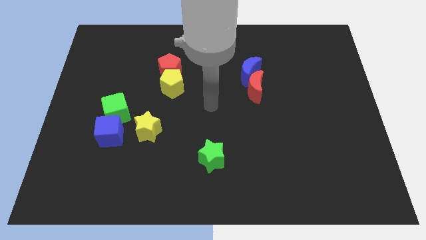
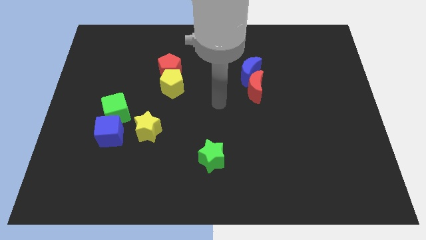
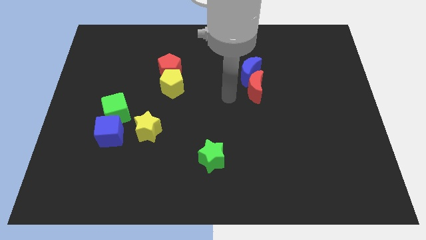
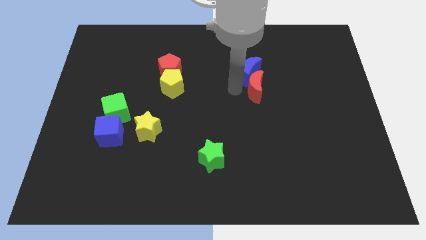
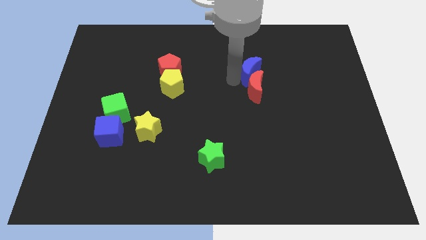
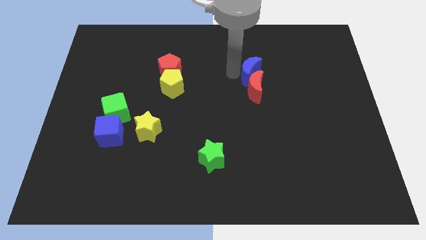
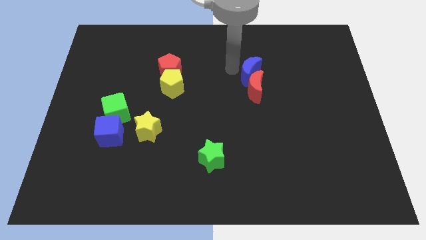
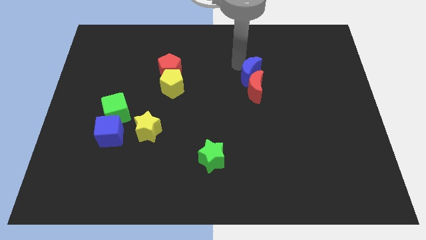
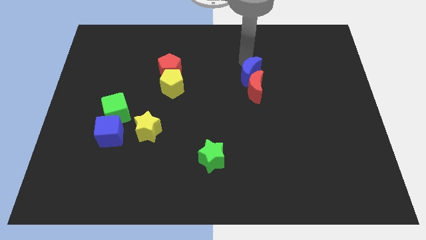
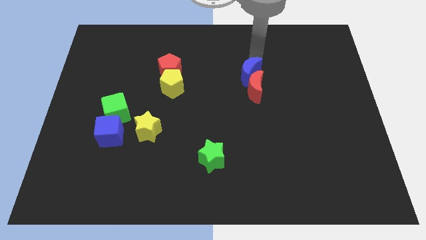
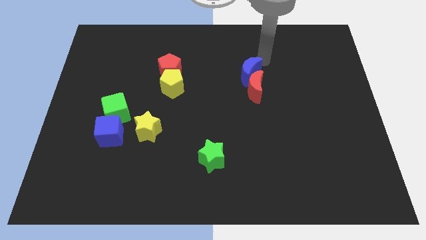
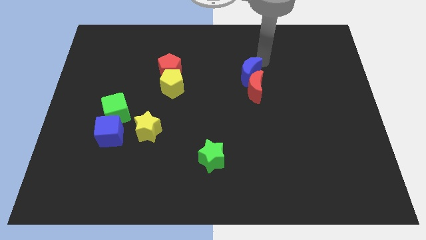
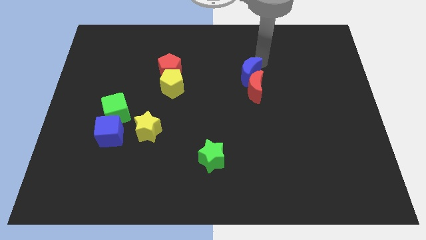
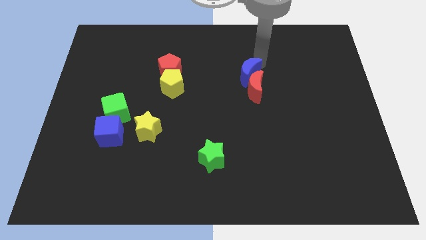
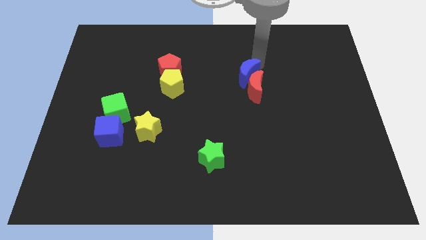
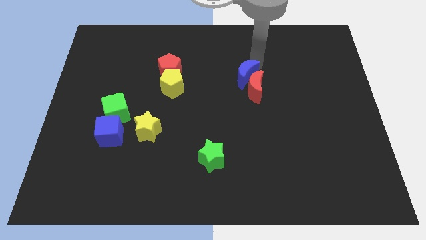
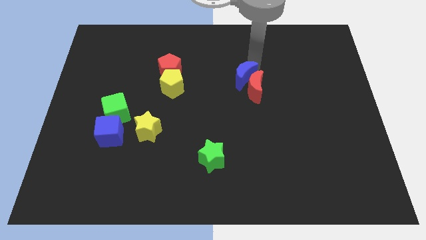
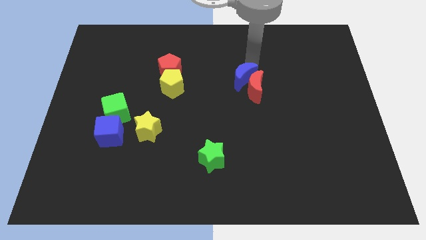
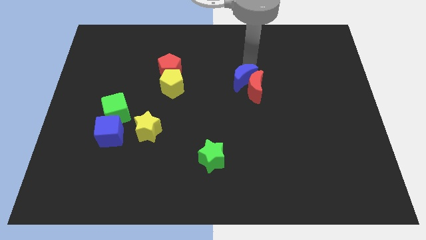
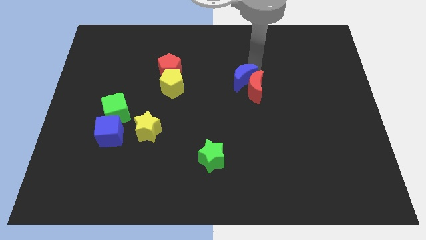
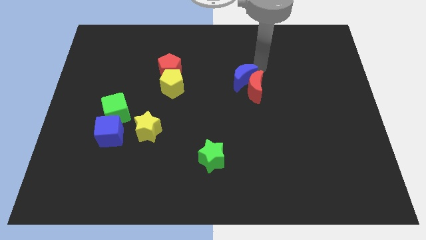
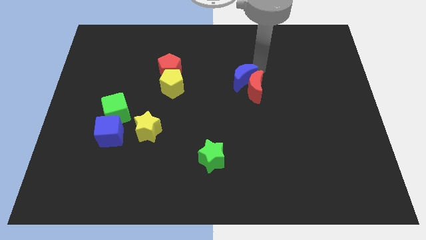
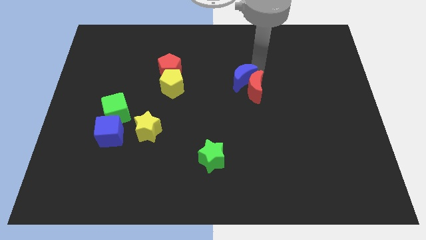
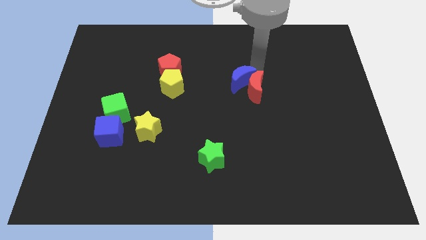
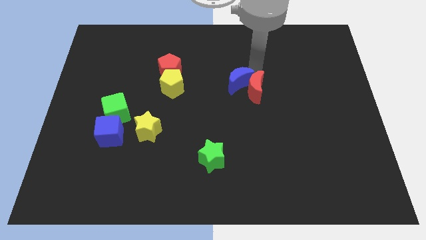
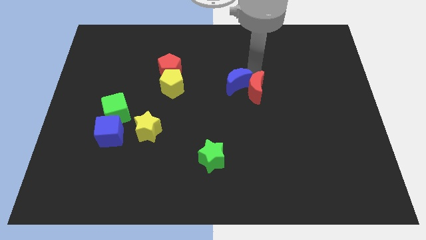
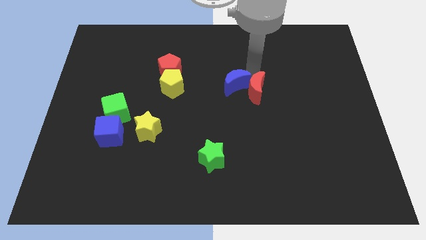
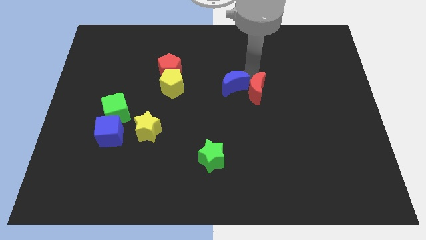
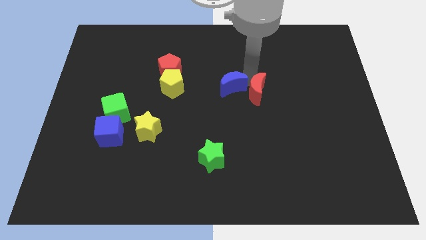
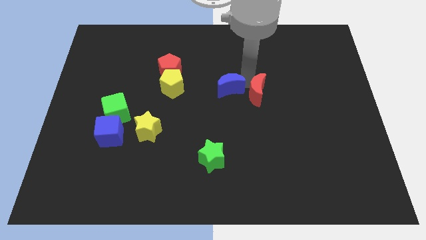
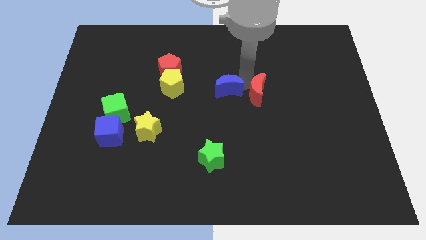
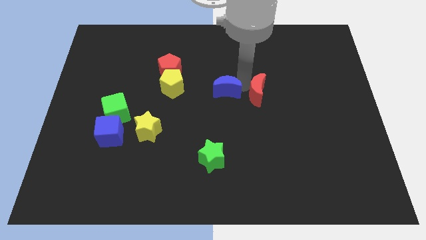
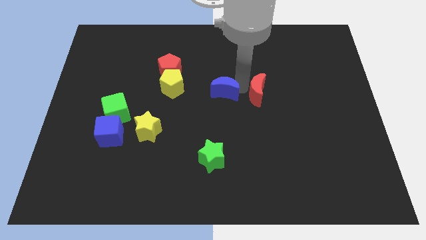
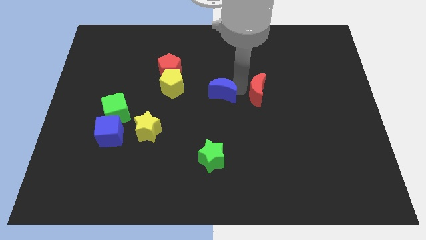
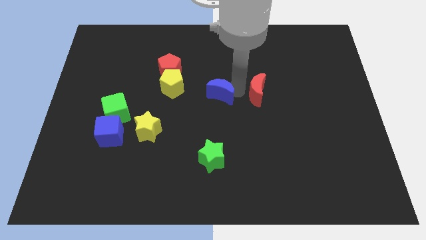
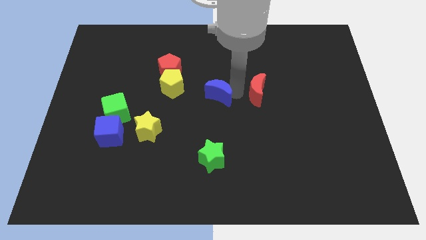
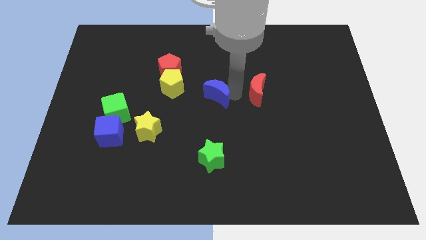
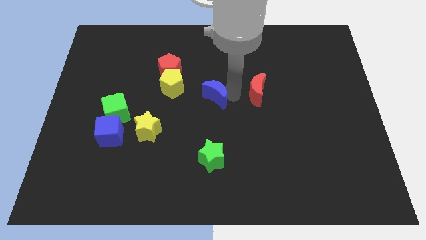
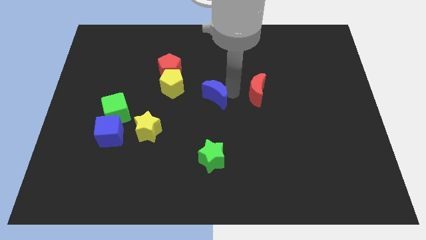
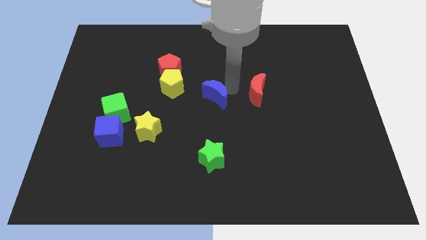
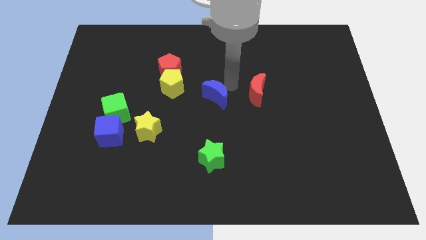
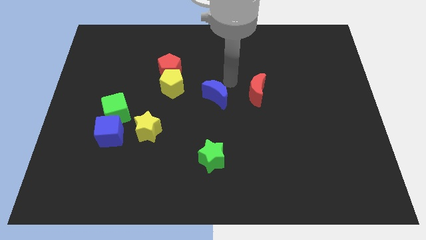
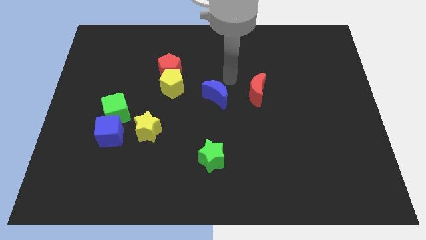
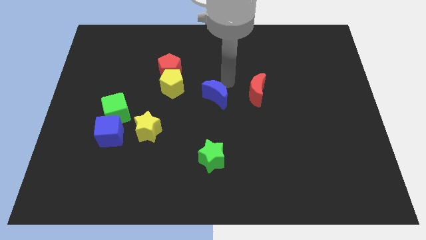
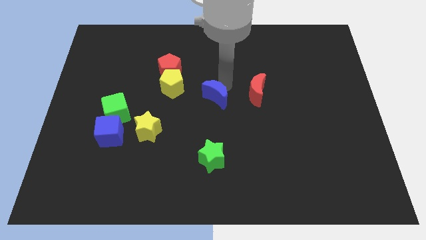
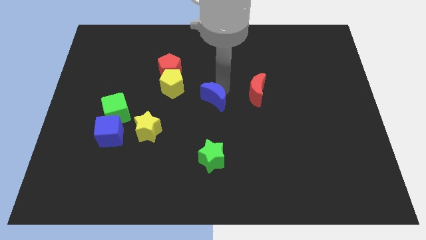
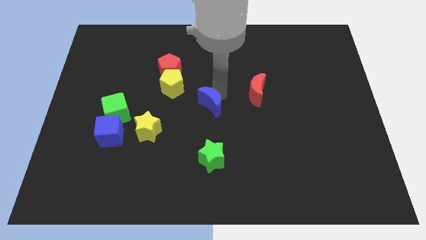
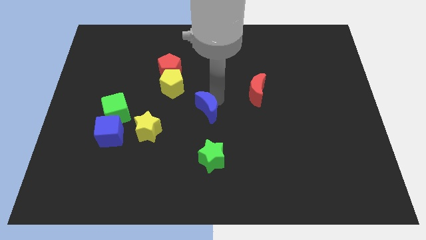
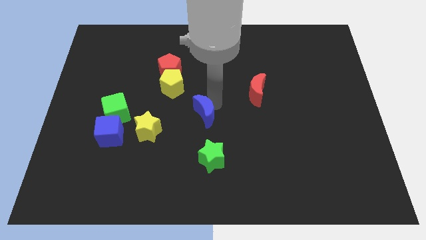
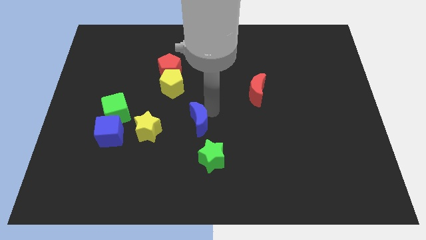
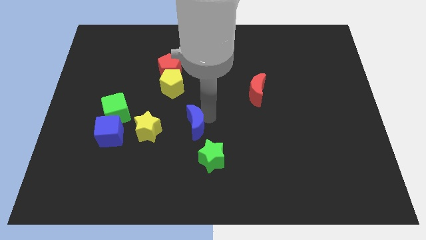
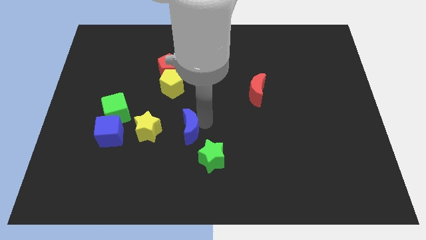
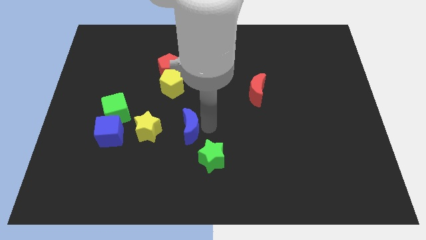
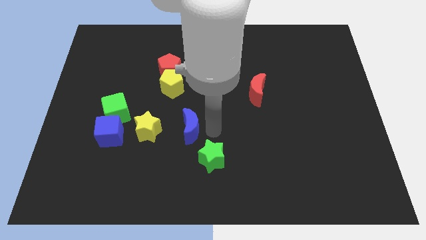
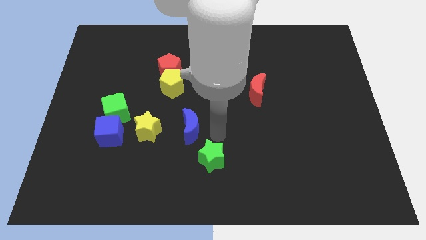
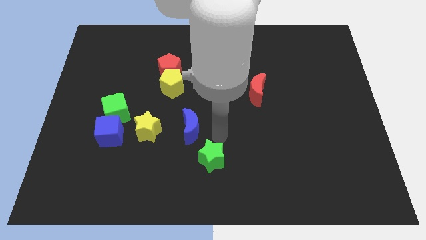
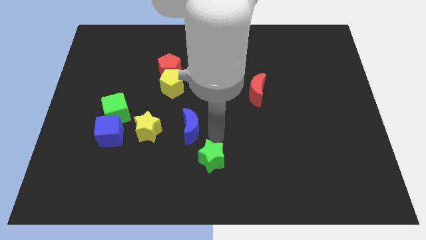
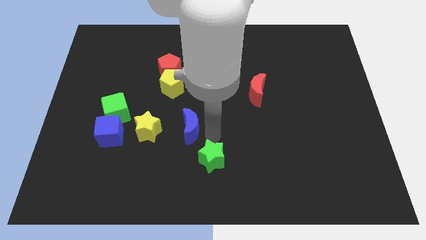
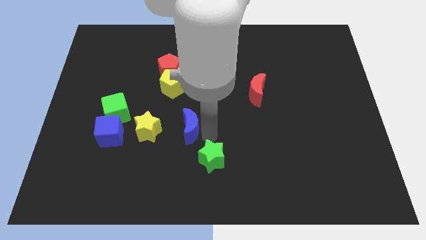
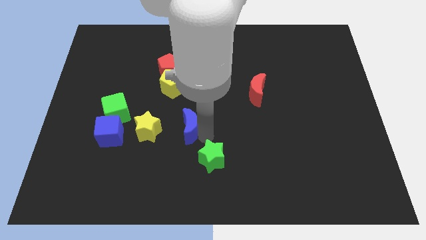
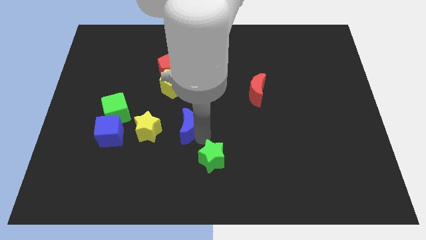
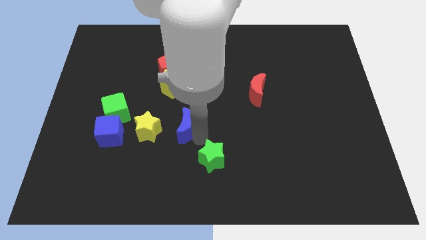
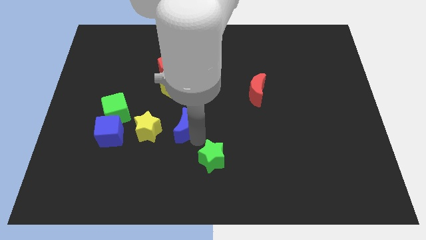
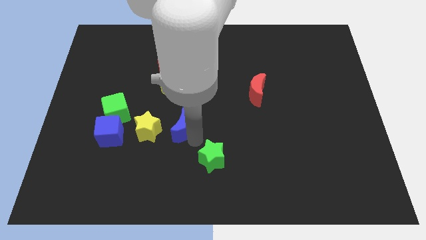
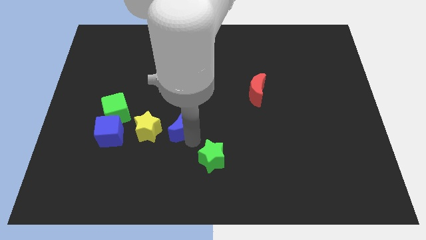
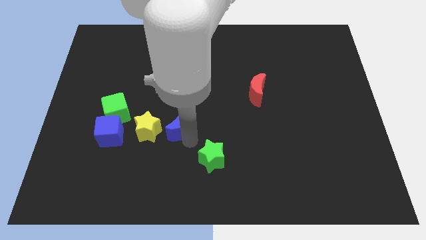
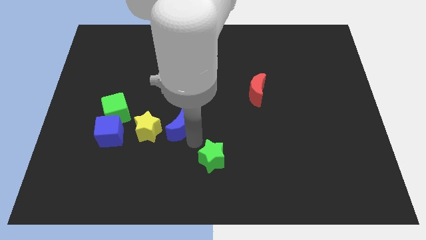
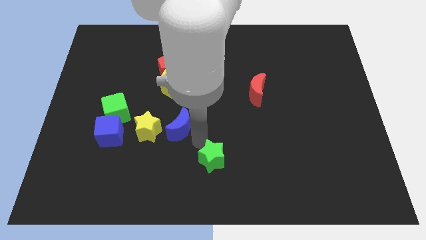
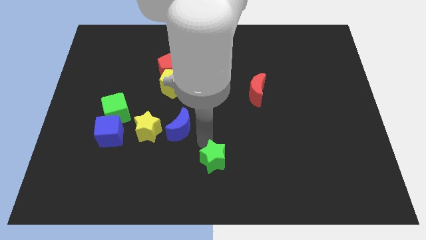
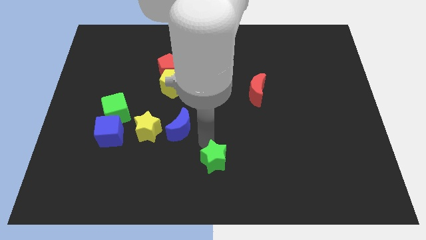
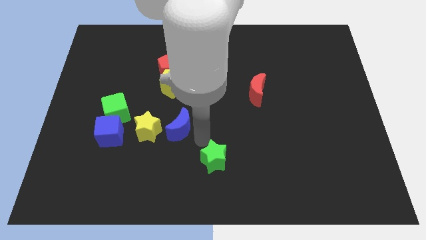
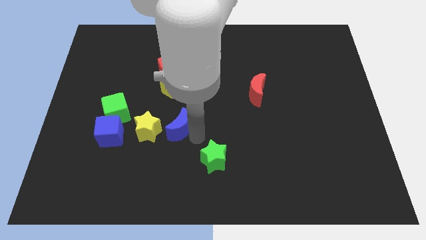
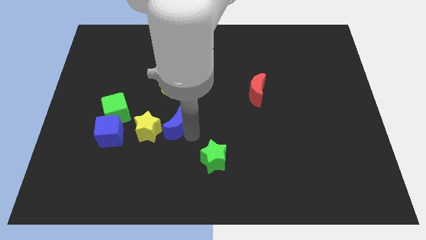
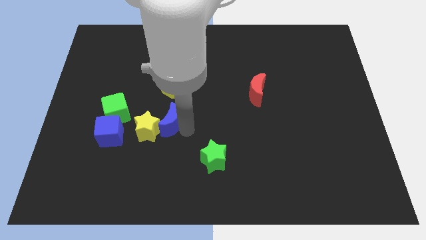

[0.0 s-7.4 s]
push the blue moon towards the yellow star
